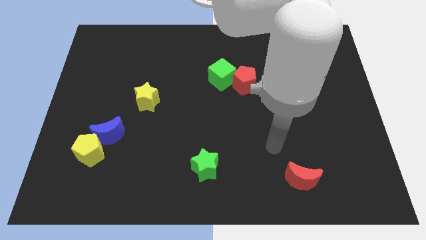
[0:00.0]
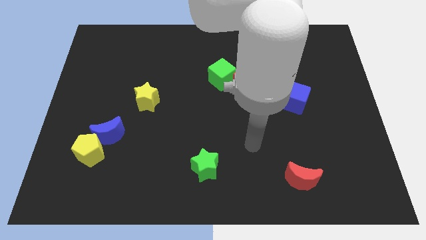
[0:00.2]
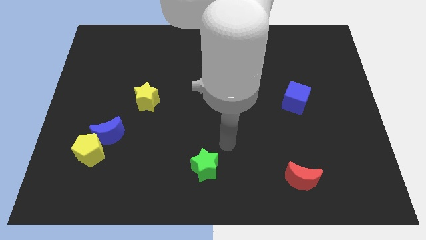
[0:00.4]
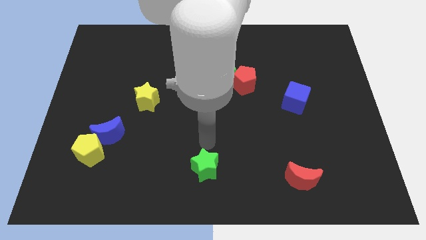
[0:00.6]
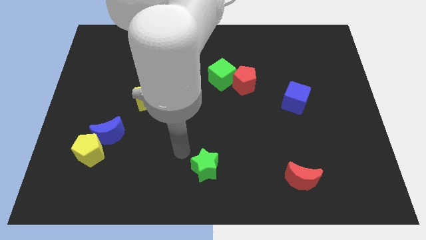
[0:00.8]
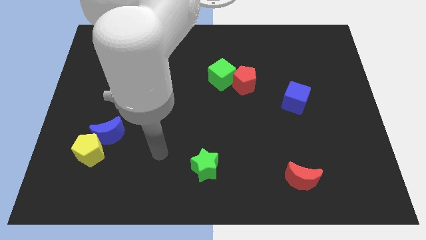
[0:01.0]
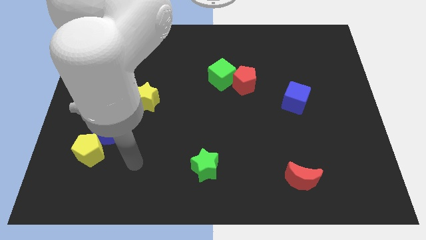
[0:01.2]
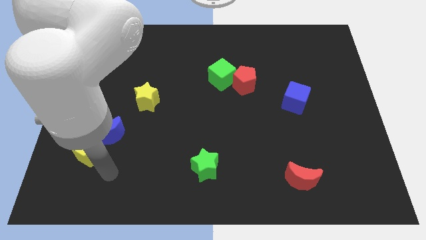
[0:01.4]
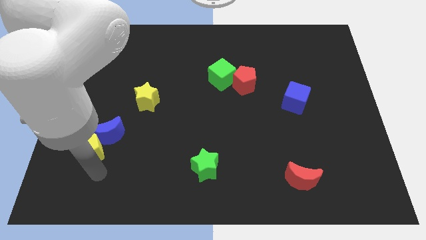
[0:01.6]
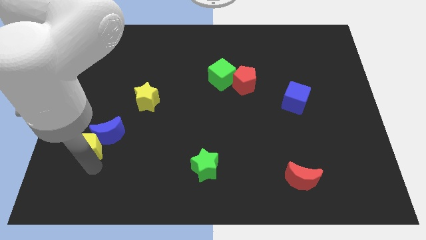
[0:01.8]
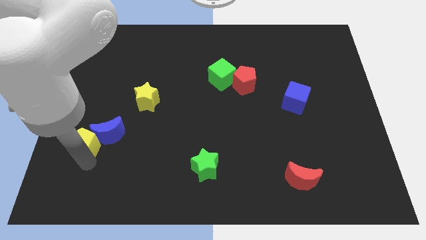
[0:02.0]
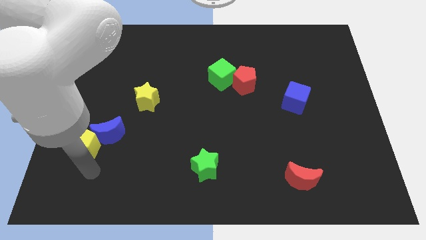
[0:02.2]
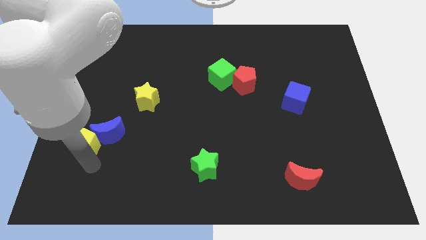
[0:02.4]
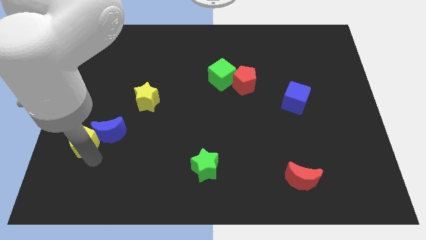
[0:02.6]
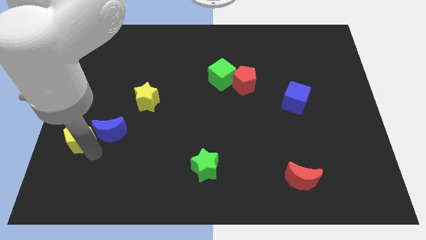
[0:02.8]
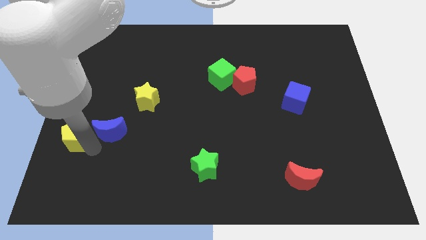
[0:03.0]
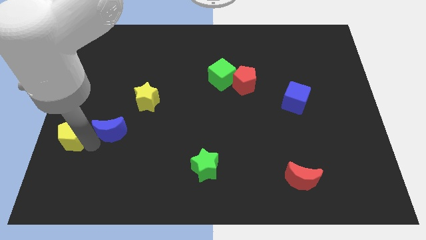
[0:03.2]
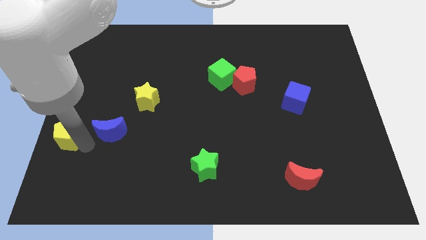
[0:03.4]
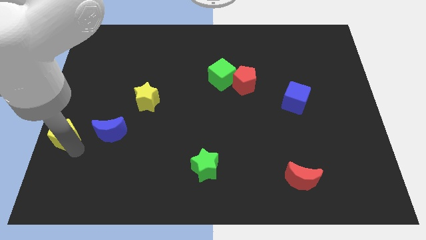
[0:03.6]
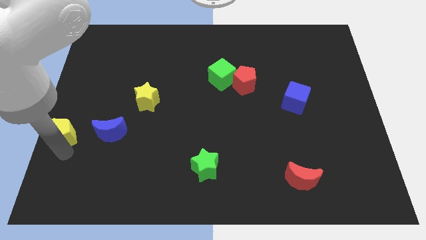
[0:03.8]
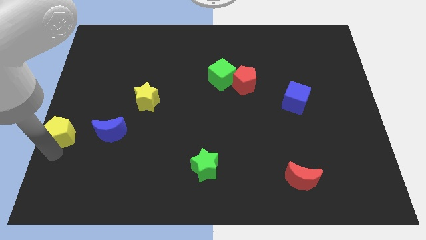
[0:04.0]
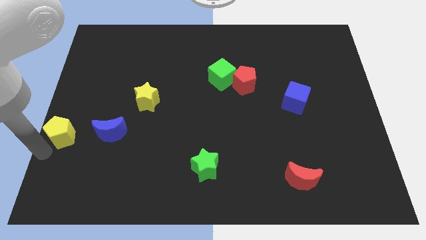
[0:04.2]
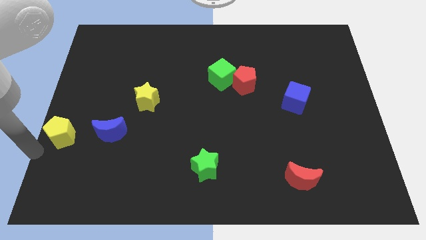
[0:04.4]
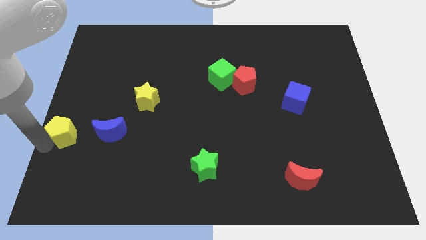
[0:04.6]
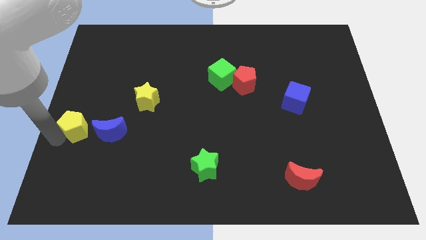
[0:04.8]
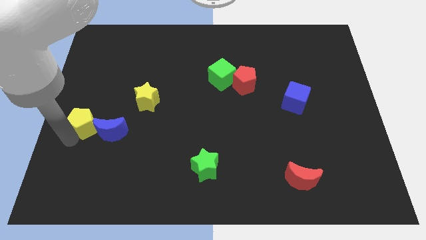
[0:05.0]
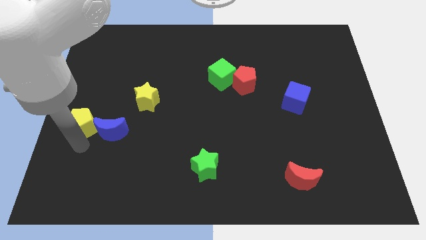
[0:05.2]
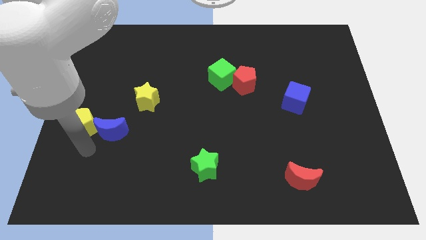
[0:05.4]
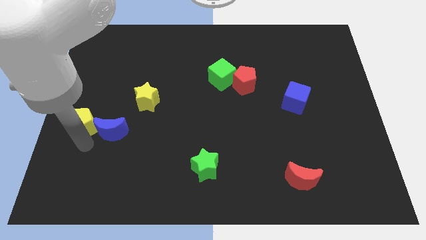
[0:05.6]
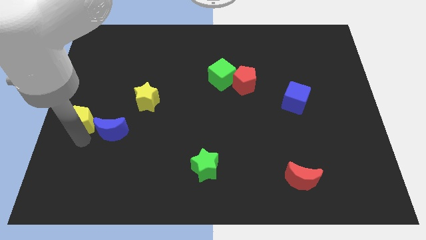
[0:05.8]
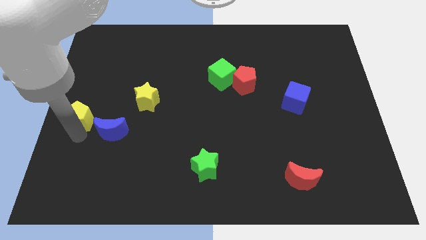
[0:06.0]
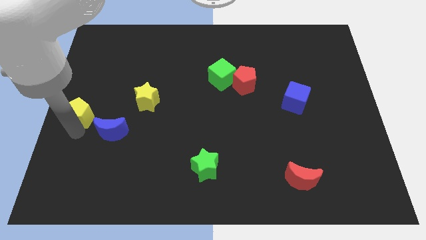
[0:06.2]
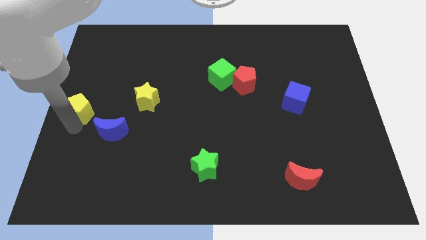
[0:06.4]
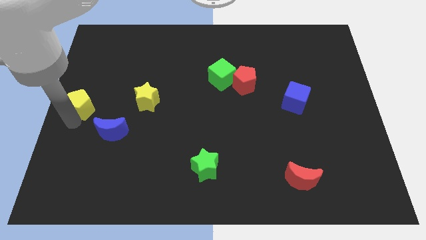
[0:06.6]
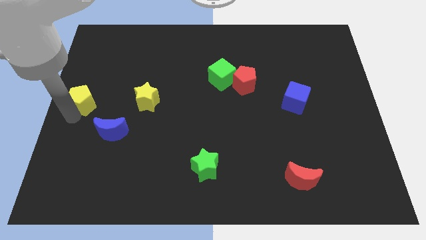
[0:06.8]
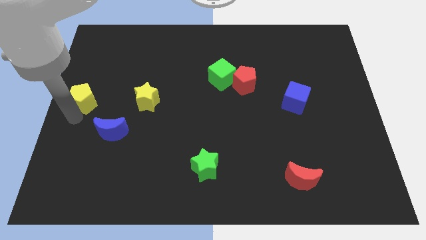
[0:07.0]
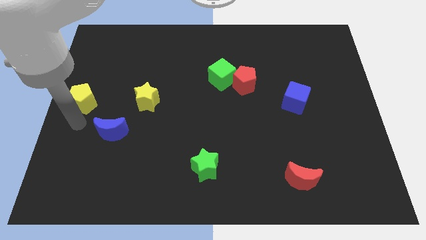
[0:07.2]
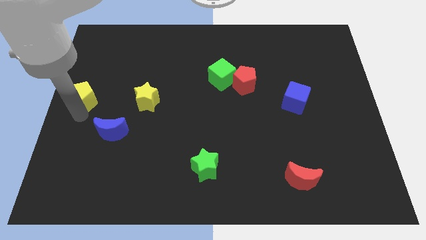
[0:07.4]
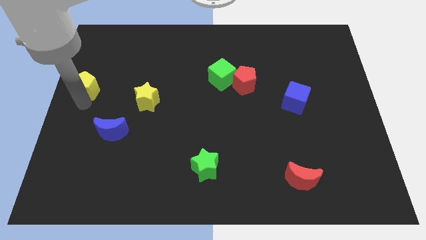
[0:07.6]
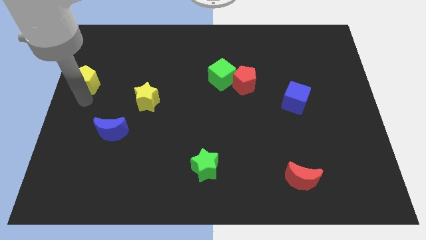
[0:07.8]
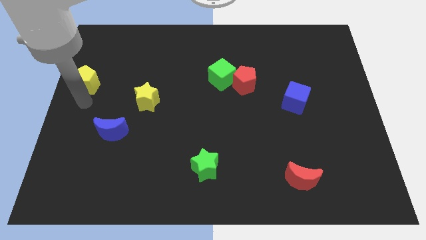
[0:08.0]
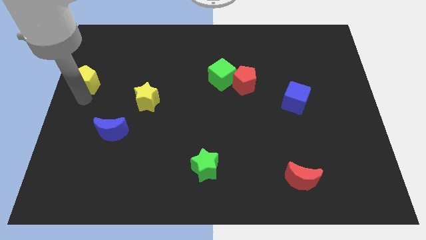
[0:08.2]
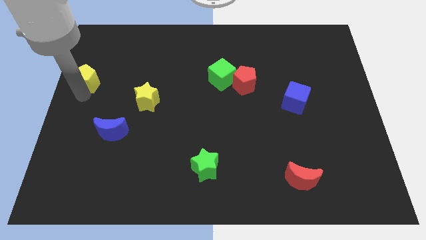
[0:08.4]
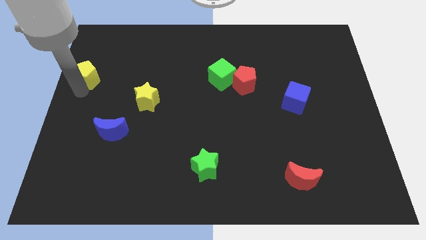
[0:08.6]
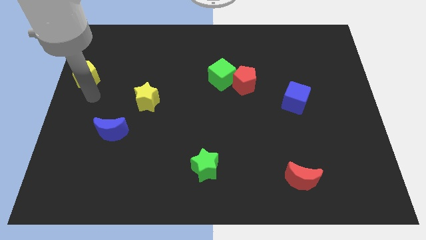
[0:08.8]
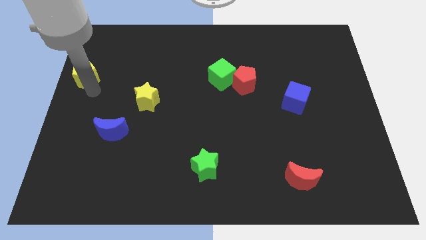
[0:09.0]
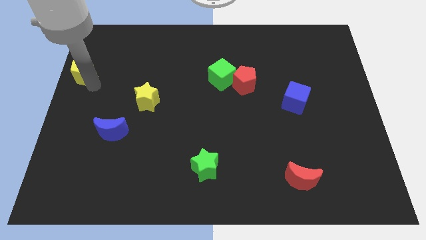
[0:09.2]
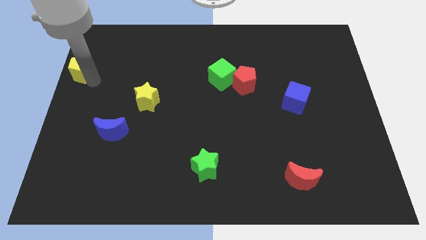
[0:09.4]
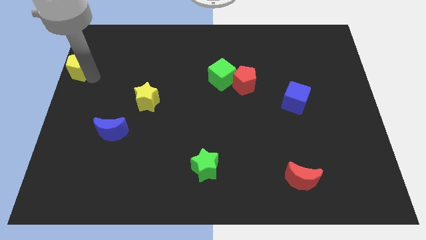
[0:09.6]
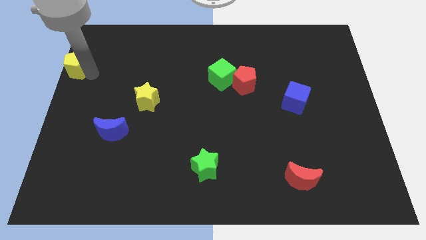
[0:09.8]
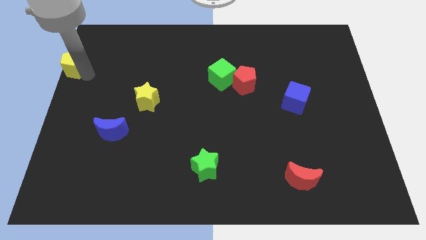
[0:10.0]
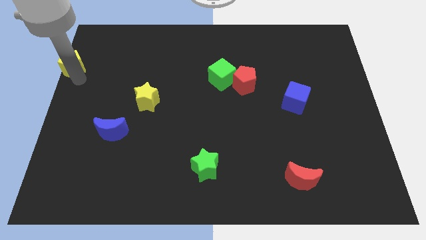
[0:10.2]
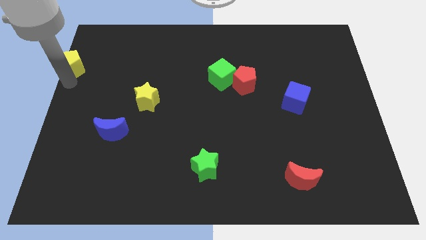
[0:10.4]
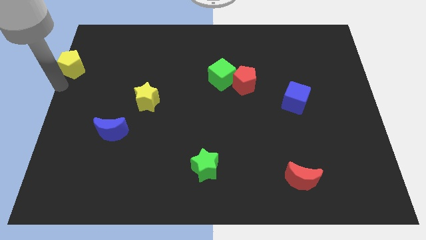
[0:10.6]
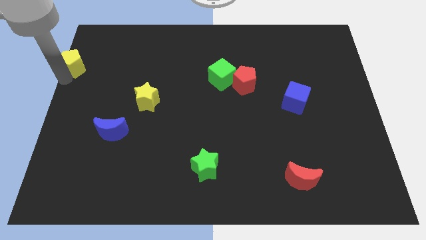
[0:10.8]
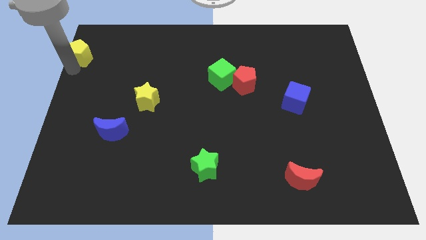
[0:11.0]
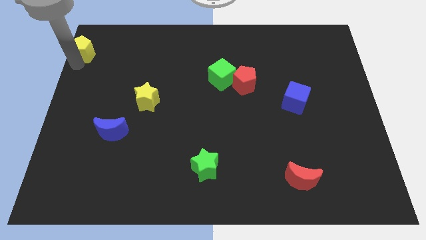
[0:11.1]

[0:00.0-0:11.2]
slide the yellow pentagon to the top left corner
